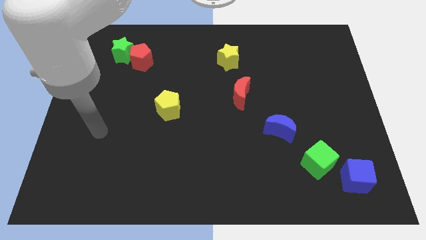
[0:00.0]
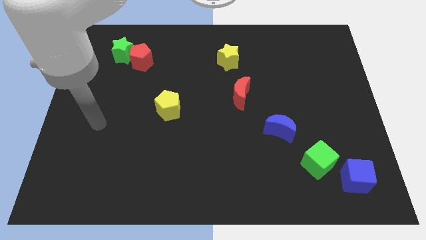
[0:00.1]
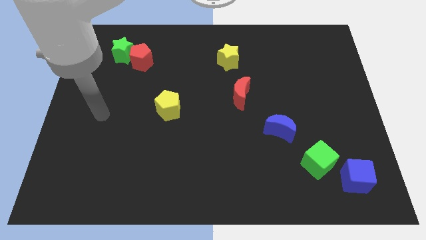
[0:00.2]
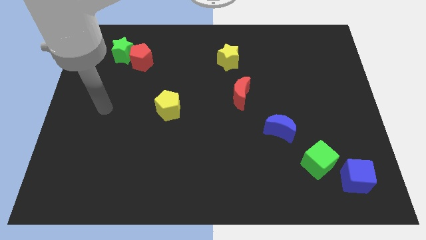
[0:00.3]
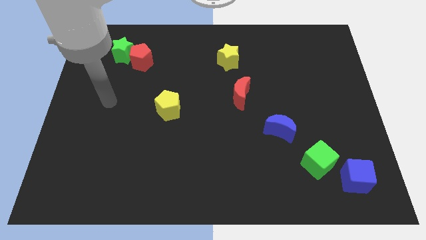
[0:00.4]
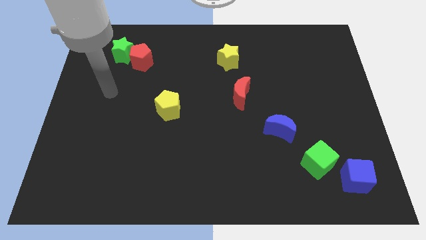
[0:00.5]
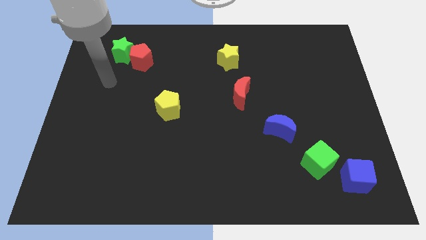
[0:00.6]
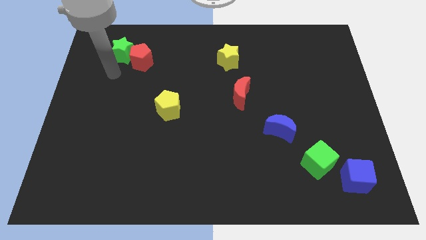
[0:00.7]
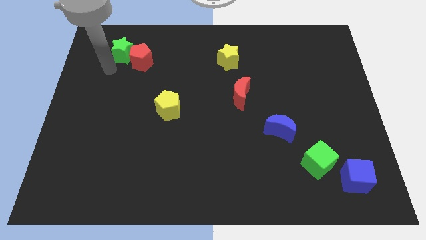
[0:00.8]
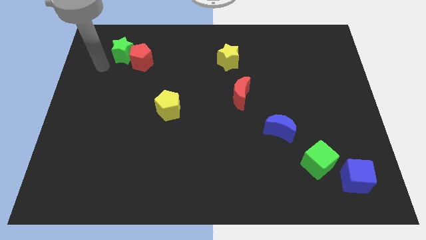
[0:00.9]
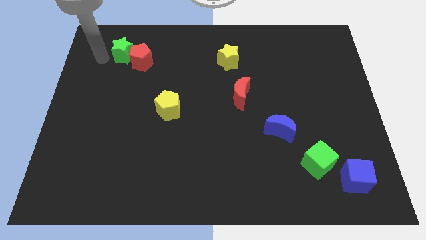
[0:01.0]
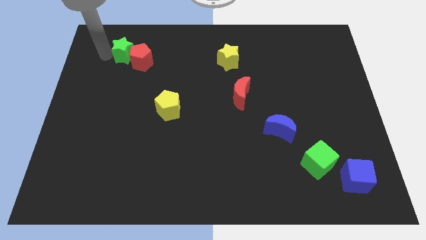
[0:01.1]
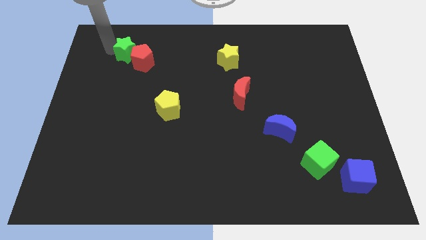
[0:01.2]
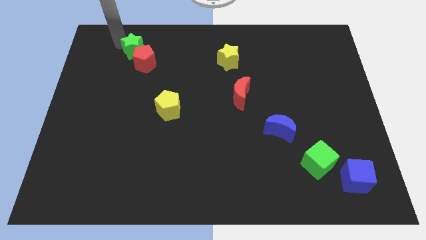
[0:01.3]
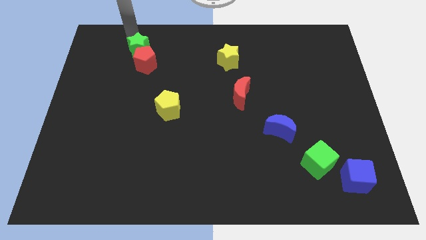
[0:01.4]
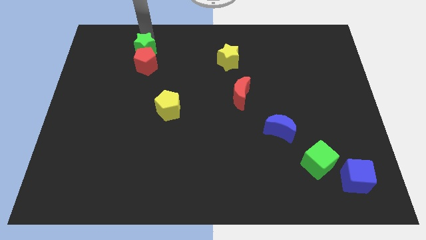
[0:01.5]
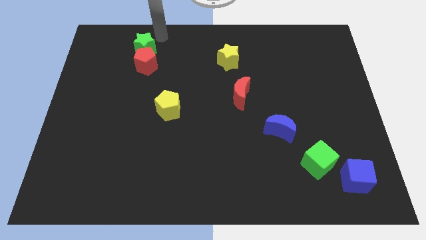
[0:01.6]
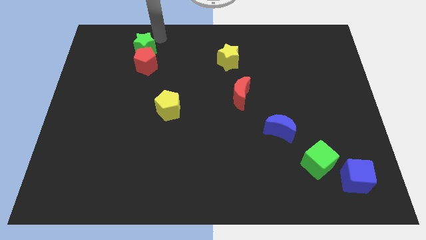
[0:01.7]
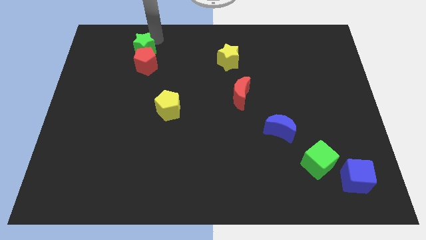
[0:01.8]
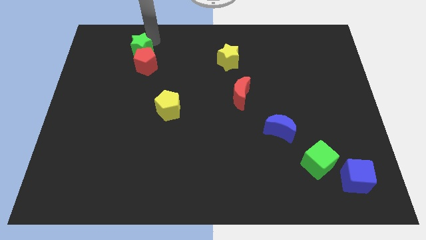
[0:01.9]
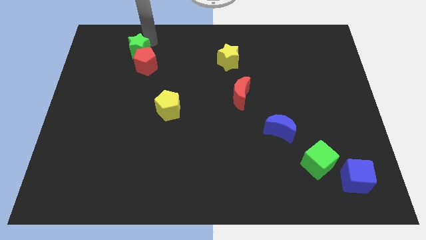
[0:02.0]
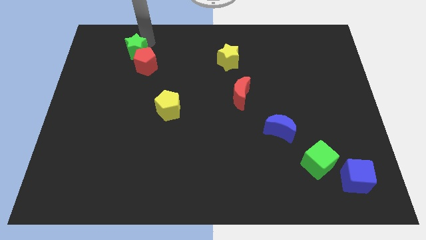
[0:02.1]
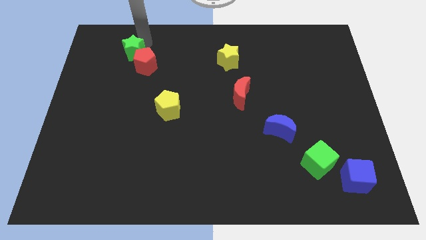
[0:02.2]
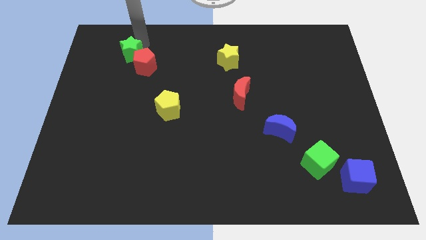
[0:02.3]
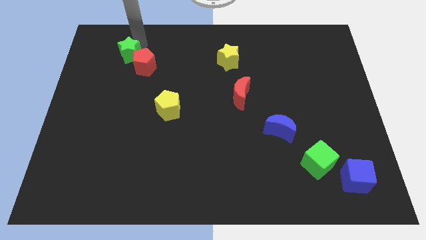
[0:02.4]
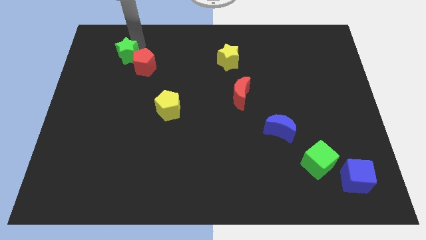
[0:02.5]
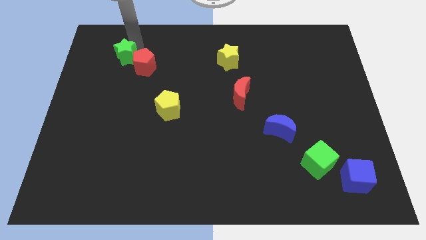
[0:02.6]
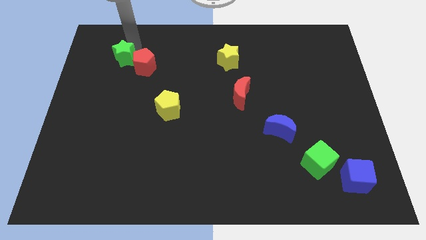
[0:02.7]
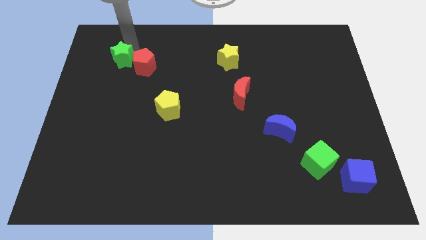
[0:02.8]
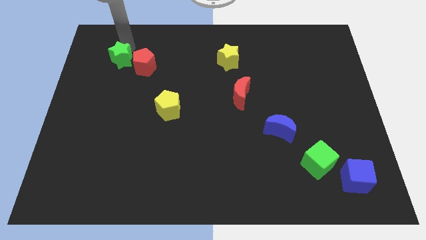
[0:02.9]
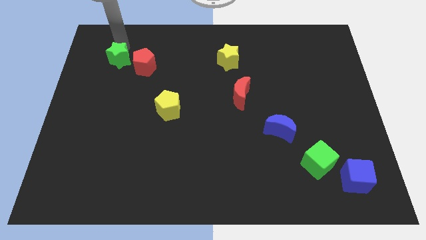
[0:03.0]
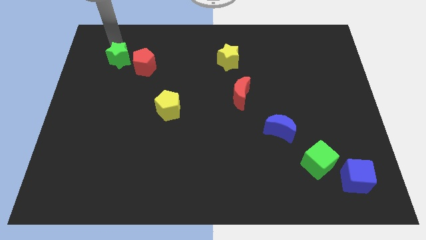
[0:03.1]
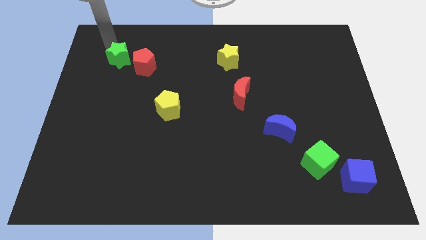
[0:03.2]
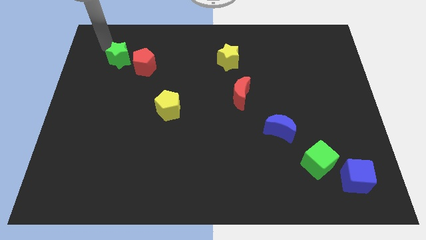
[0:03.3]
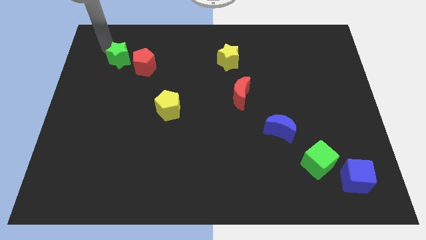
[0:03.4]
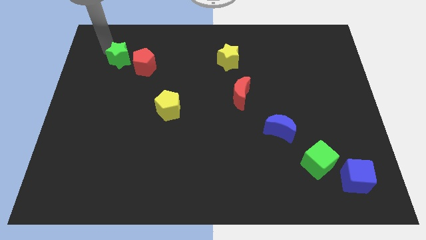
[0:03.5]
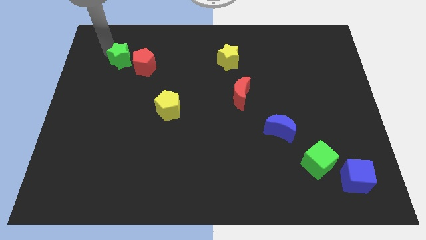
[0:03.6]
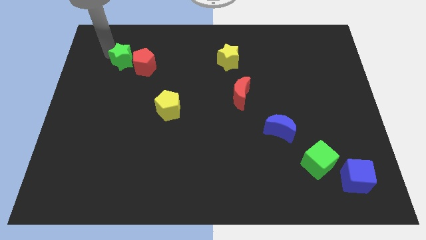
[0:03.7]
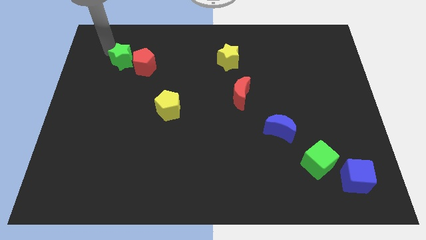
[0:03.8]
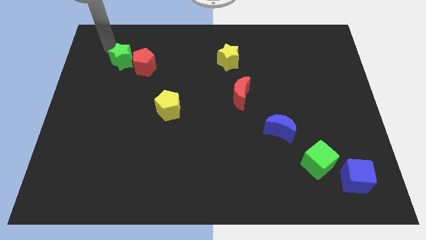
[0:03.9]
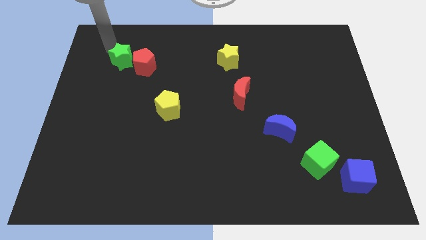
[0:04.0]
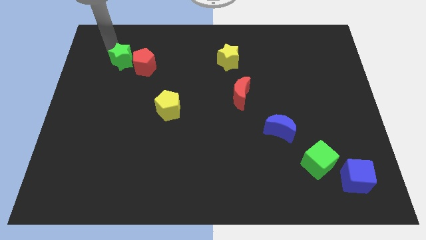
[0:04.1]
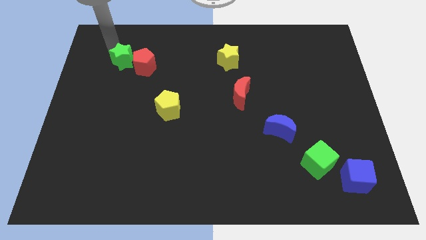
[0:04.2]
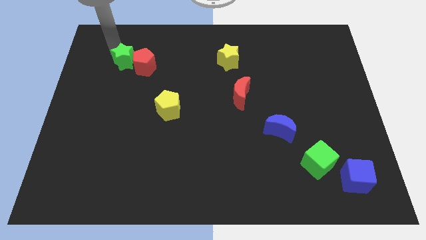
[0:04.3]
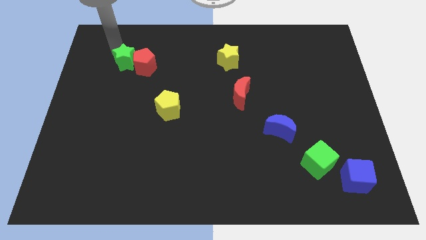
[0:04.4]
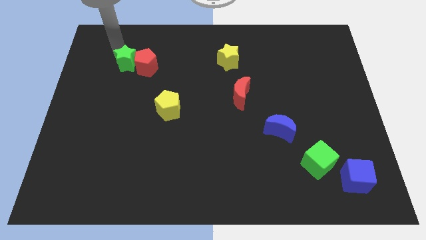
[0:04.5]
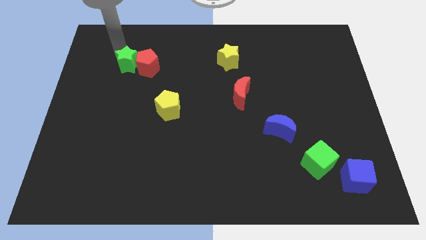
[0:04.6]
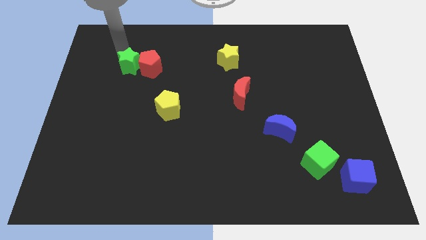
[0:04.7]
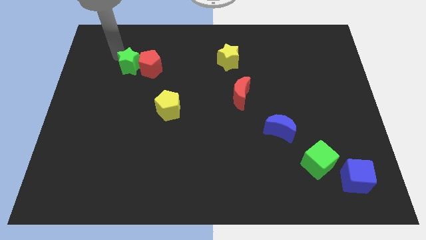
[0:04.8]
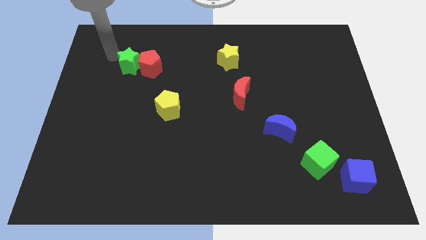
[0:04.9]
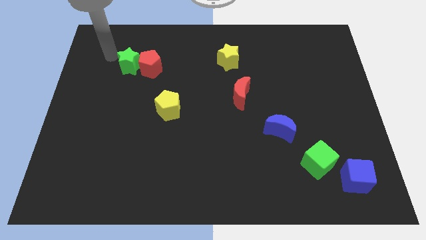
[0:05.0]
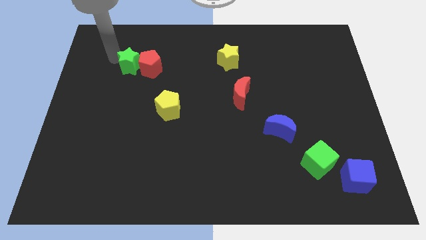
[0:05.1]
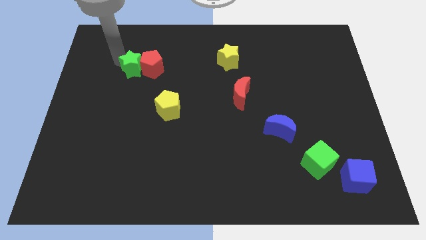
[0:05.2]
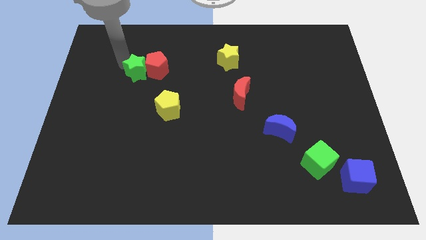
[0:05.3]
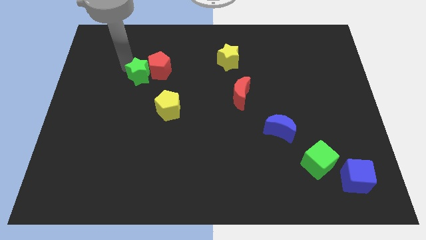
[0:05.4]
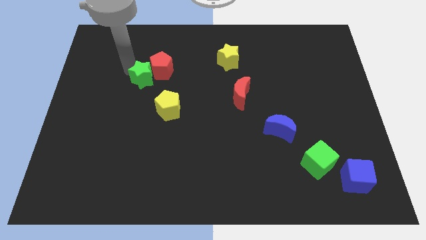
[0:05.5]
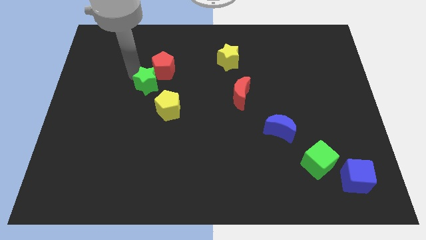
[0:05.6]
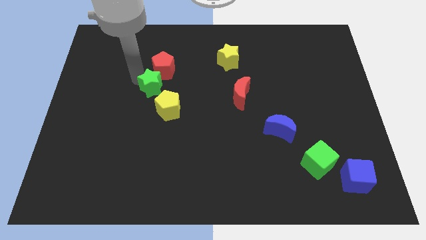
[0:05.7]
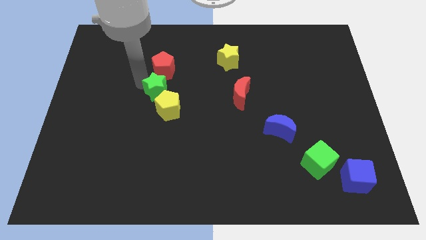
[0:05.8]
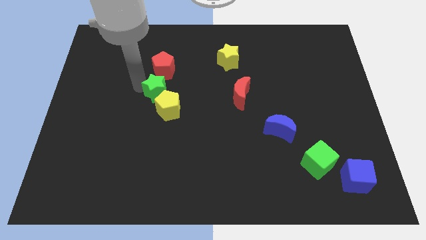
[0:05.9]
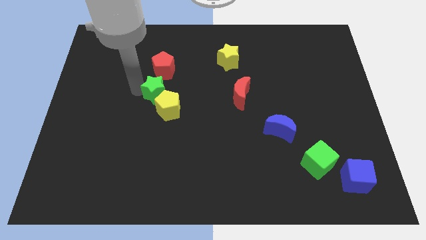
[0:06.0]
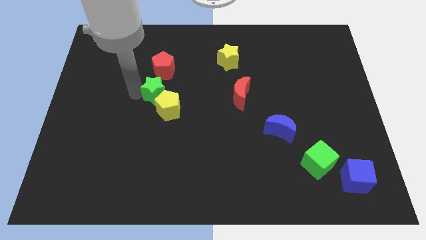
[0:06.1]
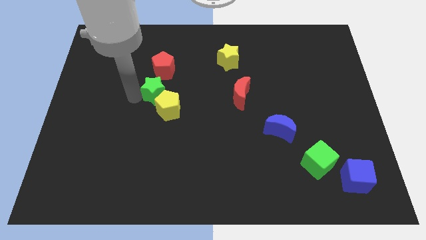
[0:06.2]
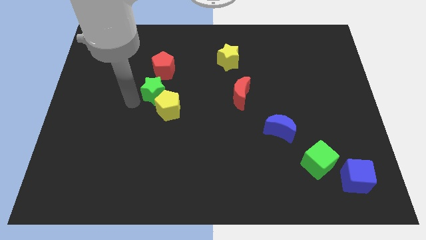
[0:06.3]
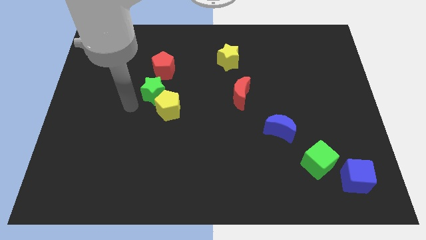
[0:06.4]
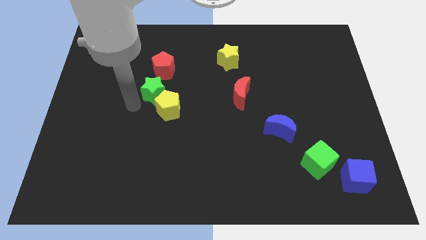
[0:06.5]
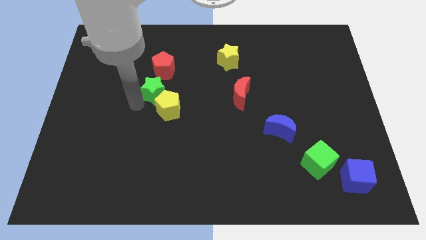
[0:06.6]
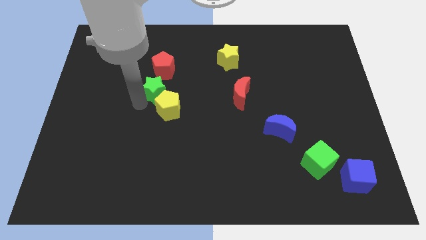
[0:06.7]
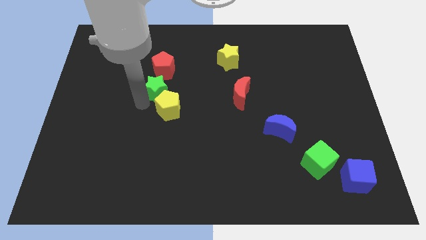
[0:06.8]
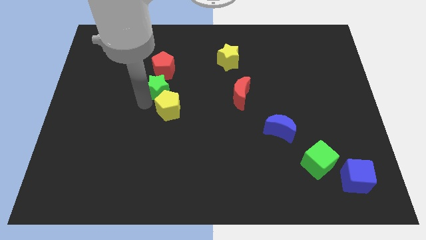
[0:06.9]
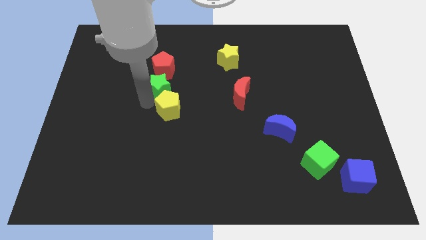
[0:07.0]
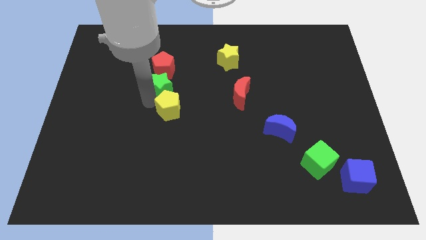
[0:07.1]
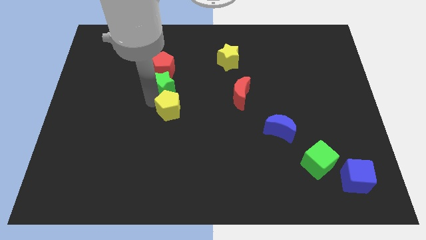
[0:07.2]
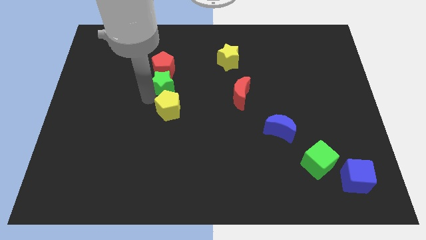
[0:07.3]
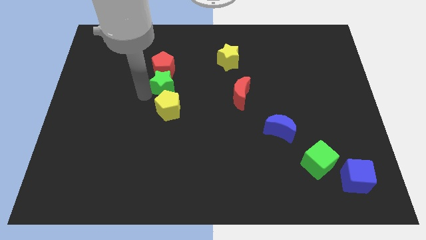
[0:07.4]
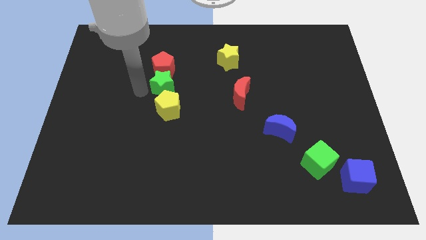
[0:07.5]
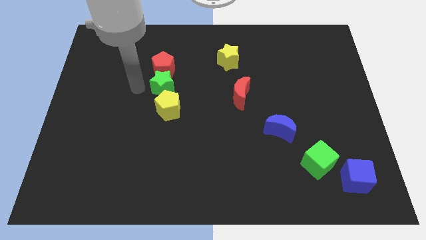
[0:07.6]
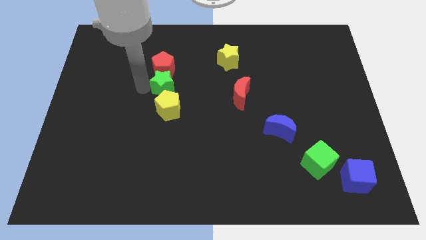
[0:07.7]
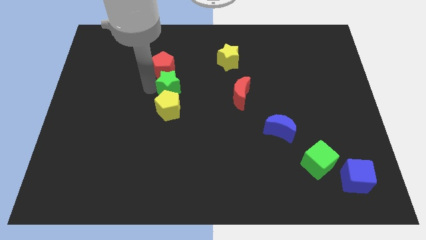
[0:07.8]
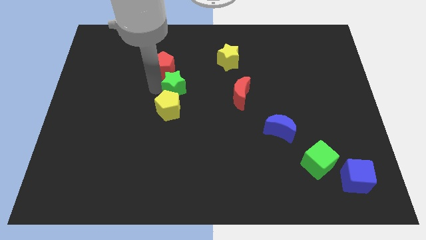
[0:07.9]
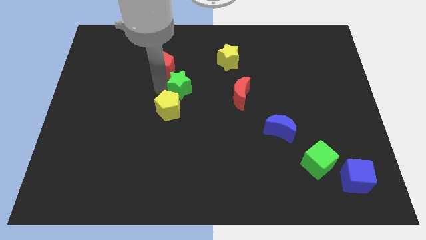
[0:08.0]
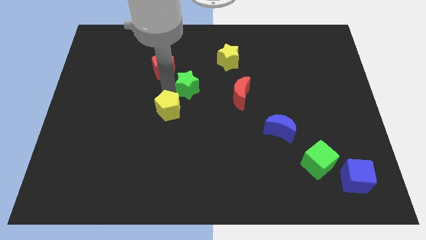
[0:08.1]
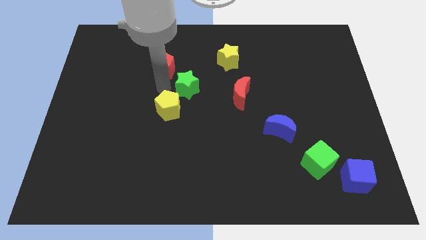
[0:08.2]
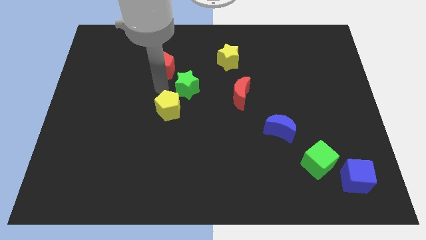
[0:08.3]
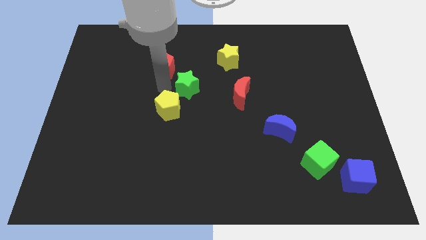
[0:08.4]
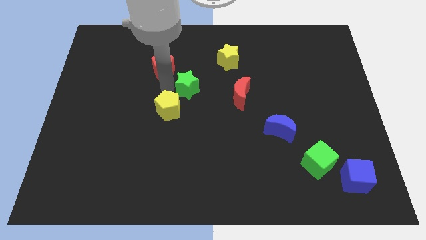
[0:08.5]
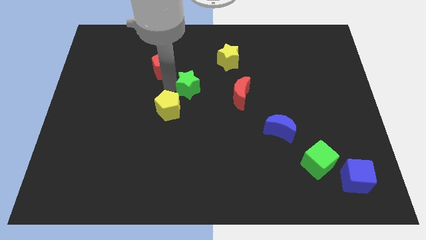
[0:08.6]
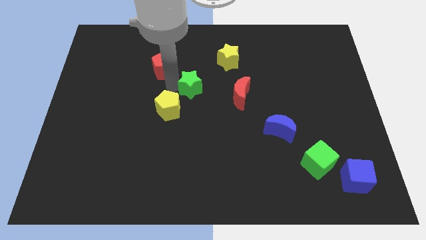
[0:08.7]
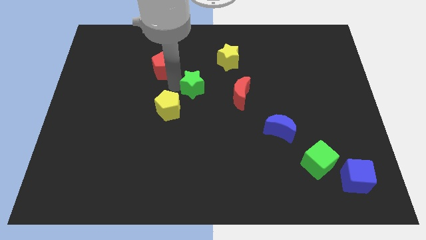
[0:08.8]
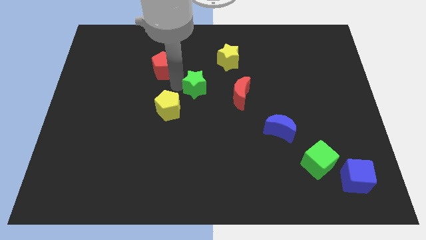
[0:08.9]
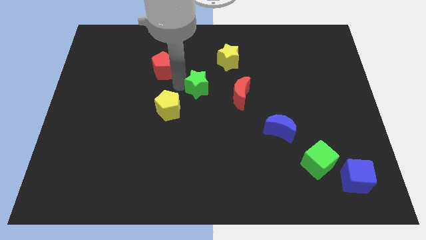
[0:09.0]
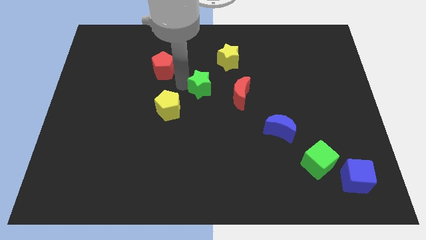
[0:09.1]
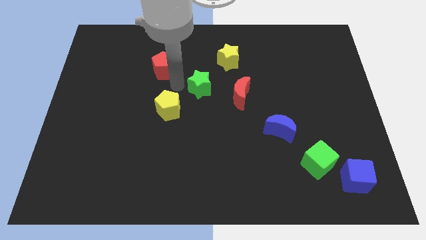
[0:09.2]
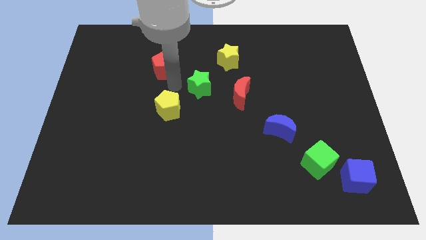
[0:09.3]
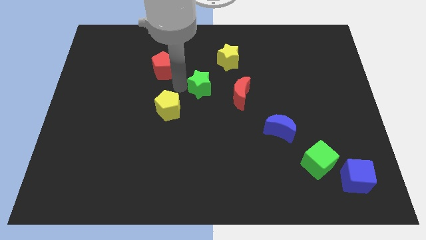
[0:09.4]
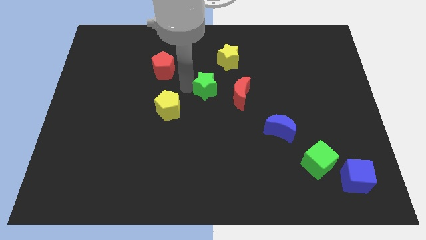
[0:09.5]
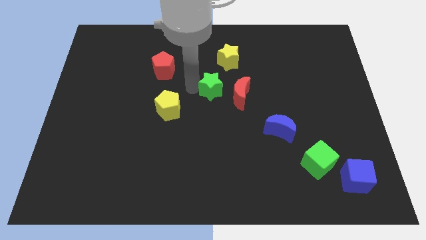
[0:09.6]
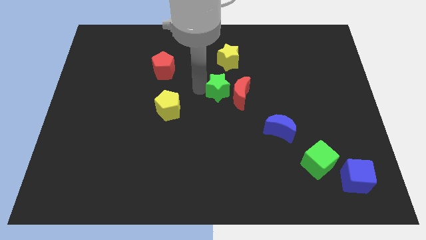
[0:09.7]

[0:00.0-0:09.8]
put the green star close to the red moon
